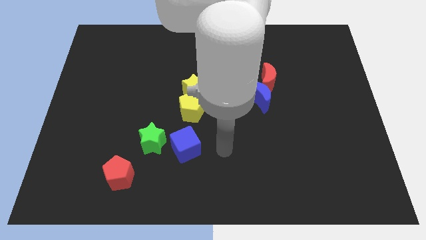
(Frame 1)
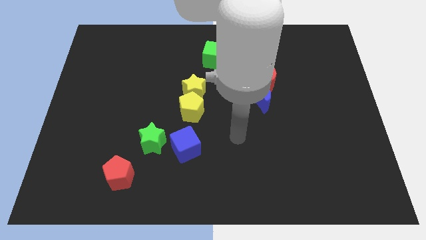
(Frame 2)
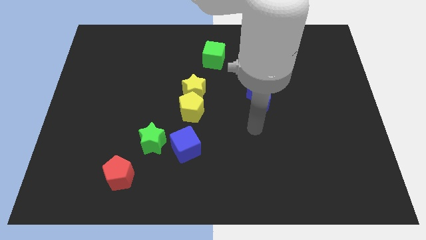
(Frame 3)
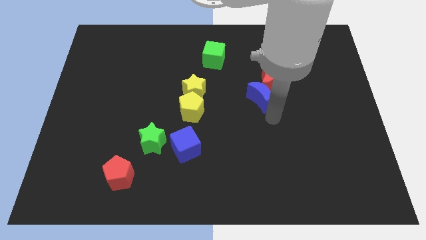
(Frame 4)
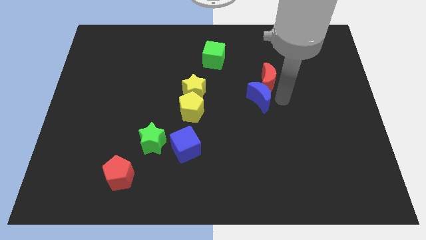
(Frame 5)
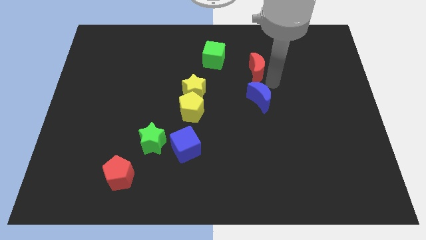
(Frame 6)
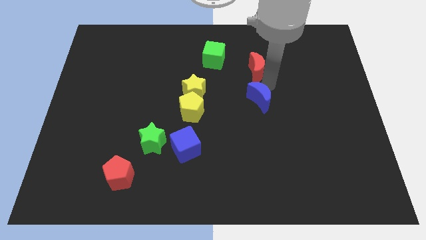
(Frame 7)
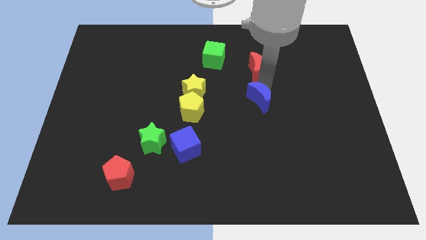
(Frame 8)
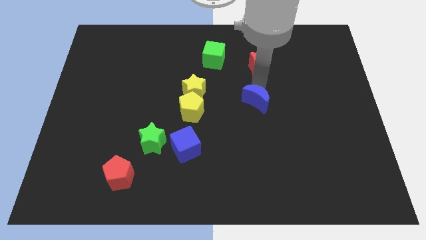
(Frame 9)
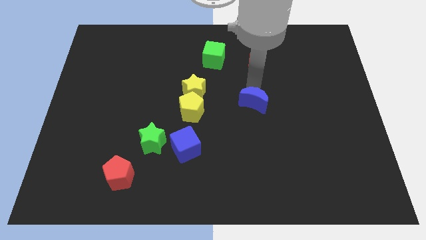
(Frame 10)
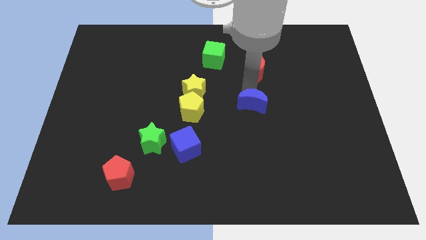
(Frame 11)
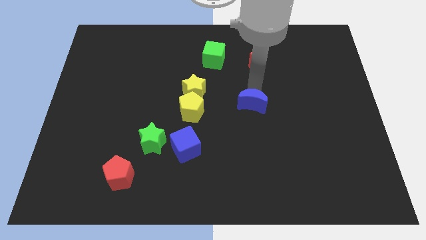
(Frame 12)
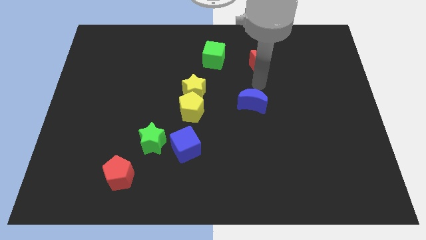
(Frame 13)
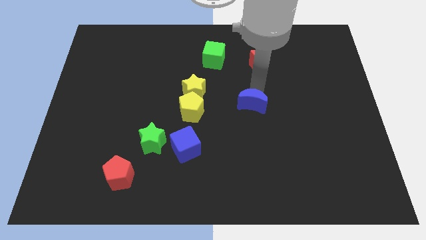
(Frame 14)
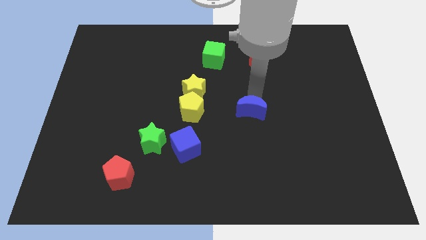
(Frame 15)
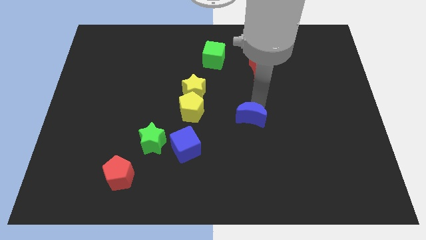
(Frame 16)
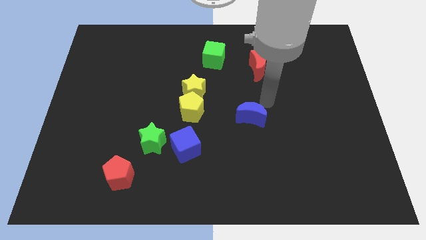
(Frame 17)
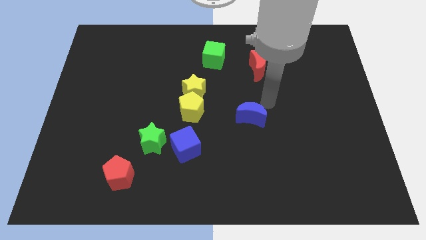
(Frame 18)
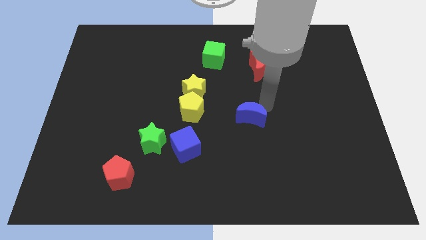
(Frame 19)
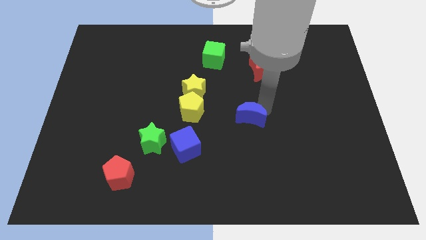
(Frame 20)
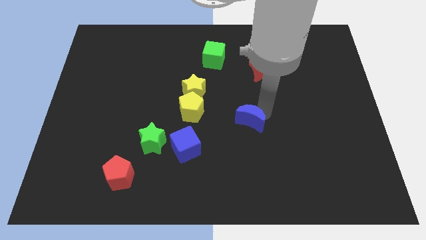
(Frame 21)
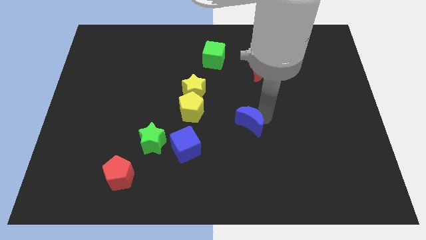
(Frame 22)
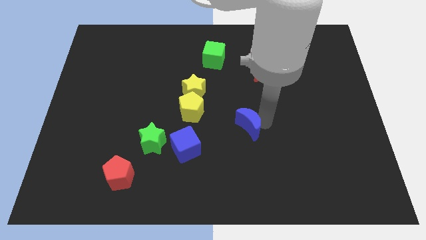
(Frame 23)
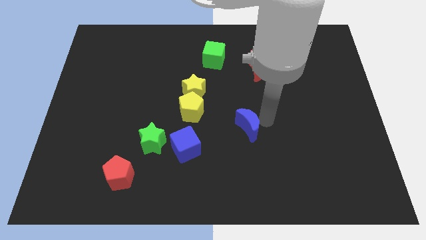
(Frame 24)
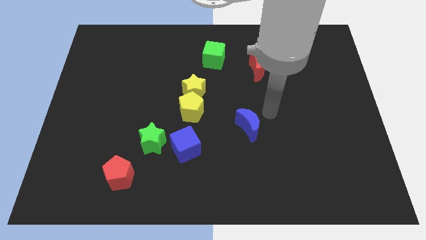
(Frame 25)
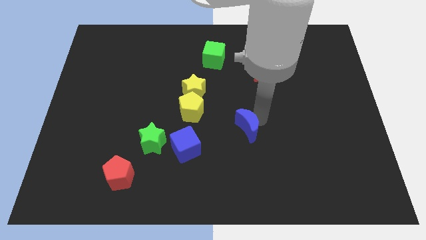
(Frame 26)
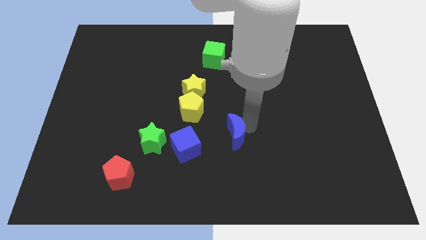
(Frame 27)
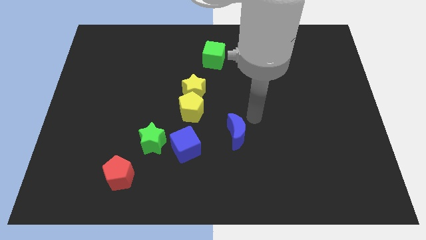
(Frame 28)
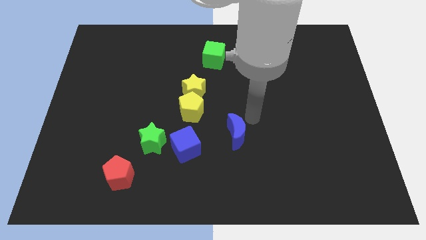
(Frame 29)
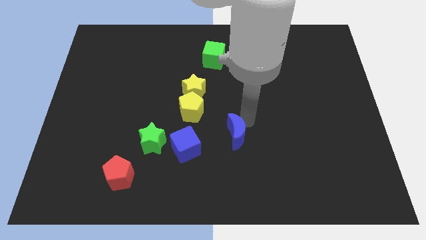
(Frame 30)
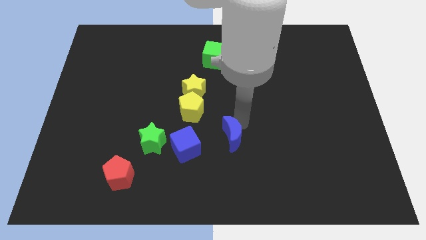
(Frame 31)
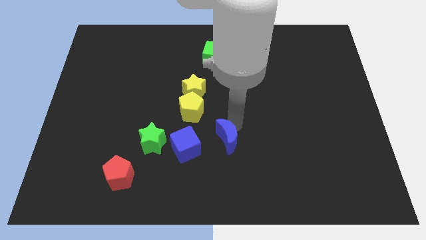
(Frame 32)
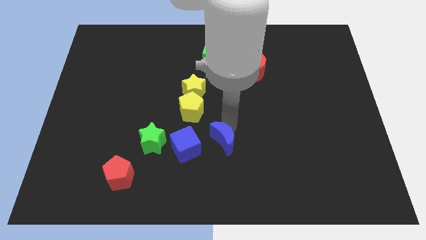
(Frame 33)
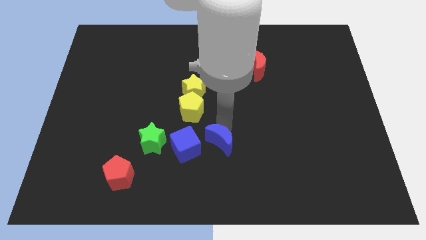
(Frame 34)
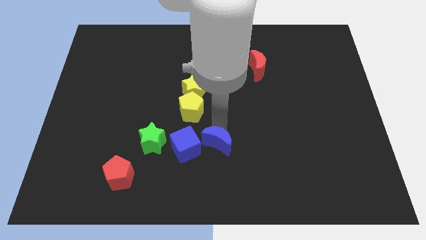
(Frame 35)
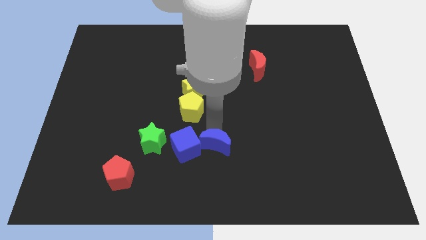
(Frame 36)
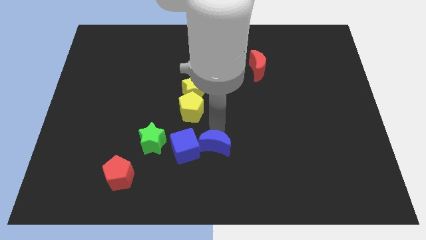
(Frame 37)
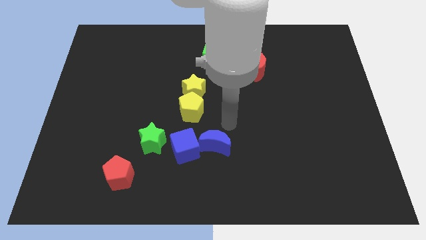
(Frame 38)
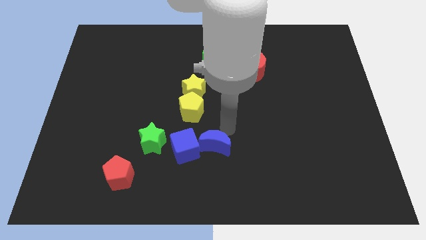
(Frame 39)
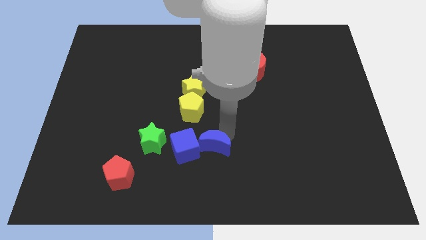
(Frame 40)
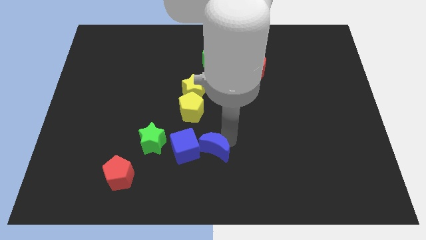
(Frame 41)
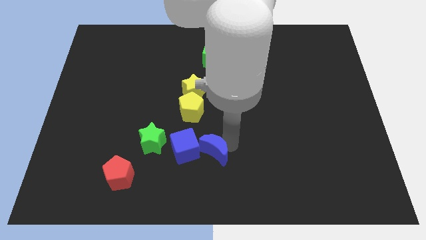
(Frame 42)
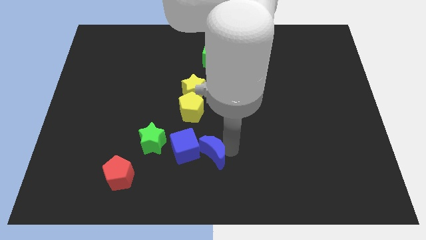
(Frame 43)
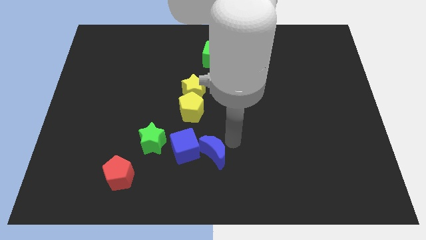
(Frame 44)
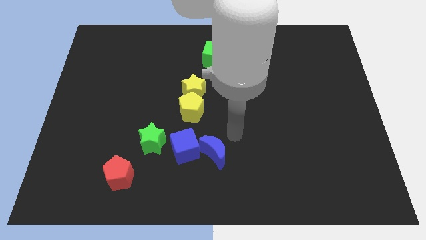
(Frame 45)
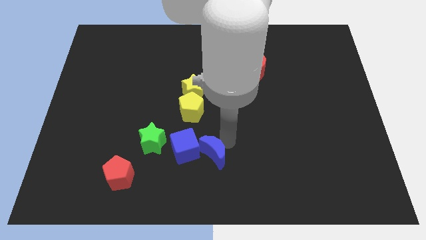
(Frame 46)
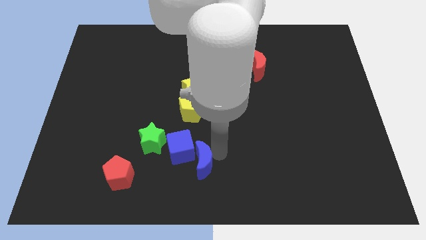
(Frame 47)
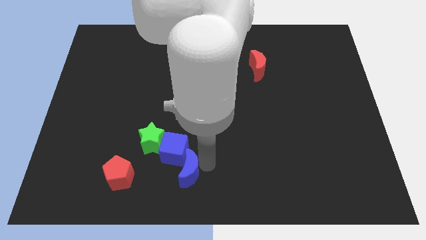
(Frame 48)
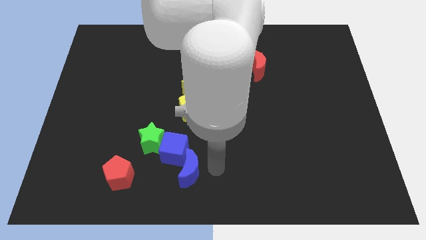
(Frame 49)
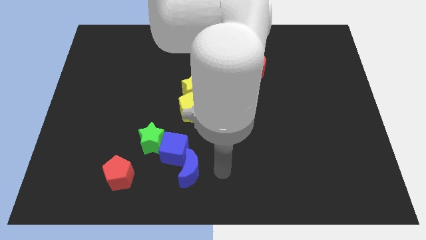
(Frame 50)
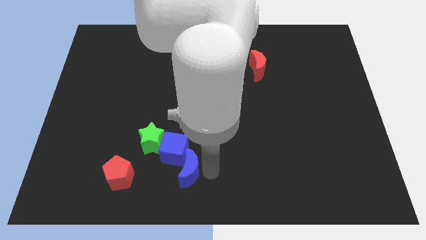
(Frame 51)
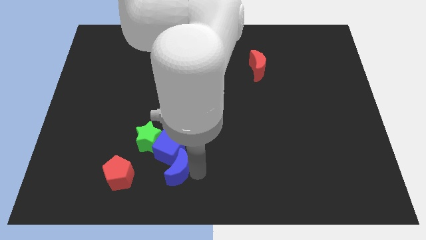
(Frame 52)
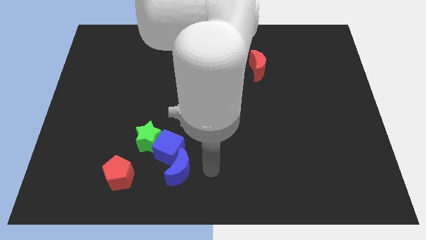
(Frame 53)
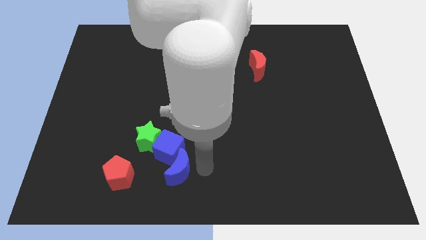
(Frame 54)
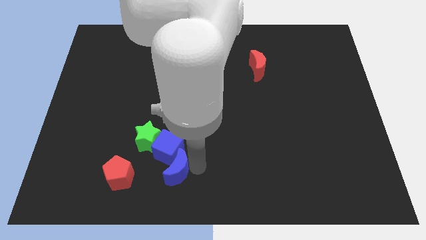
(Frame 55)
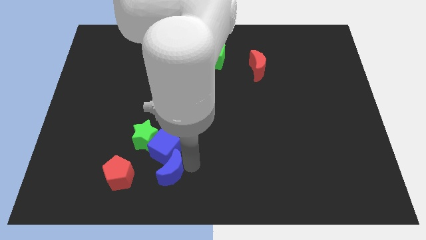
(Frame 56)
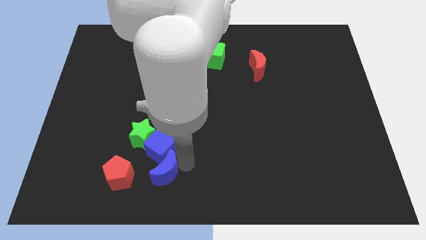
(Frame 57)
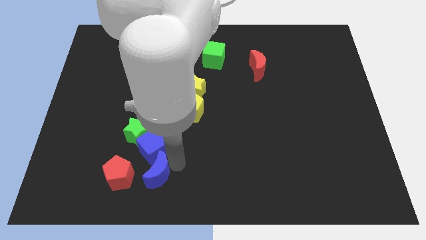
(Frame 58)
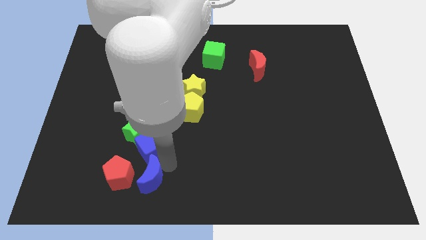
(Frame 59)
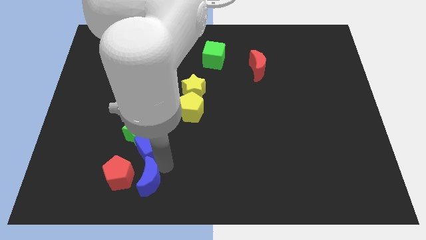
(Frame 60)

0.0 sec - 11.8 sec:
move the blue moon towards the red pentagon
